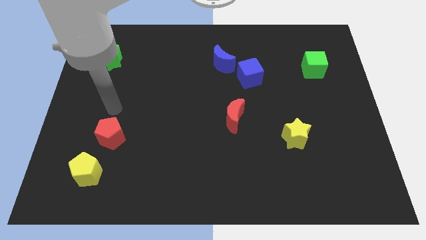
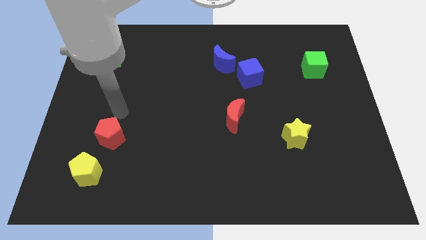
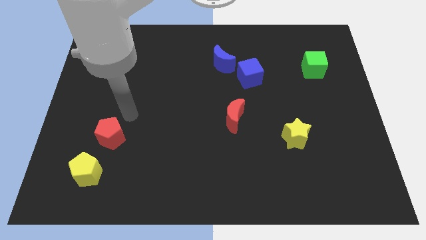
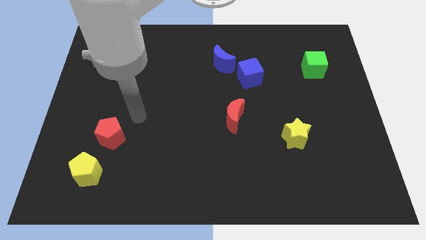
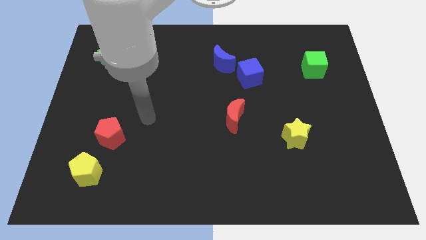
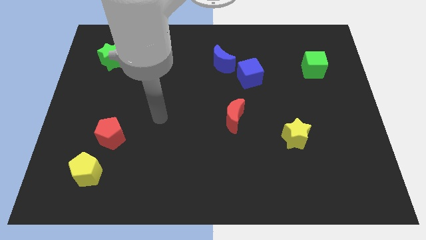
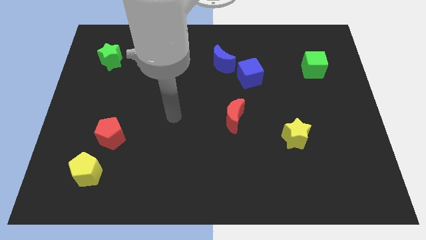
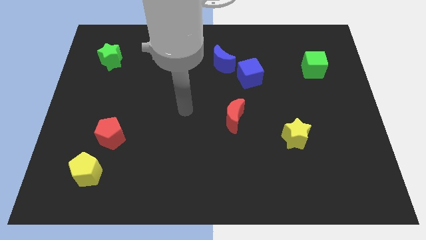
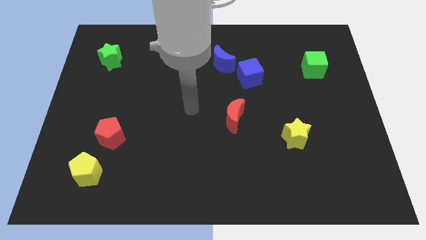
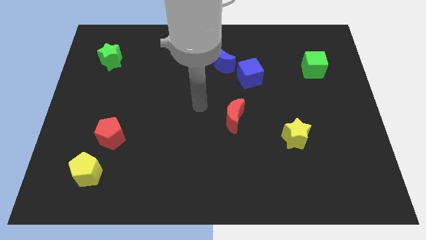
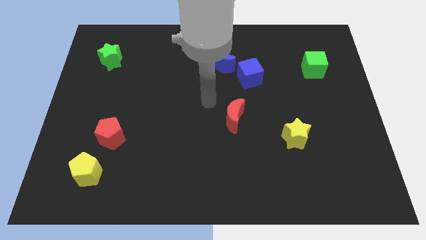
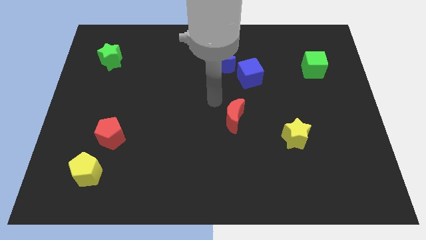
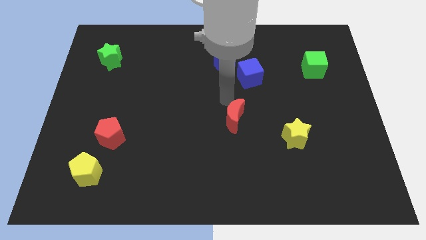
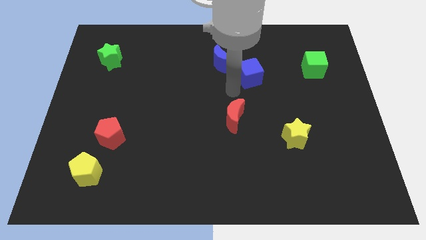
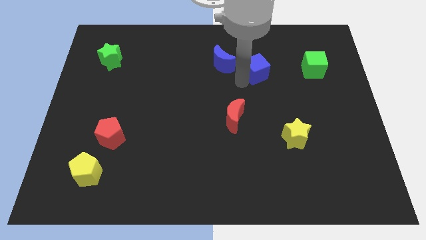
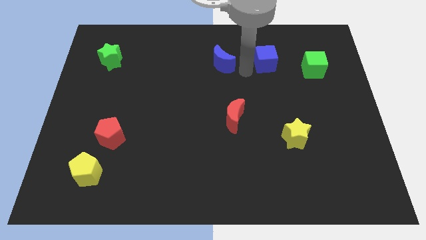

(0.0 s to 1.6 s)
pull the blue moon apart from the blue cube

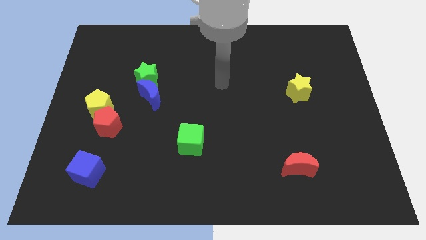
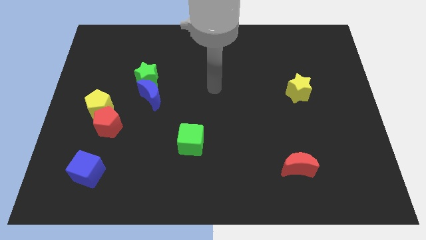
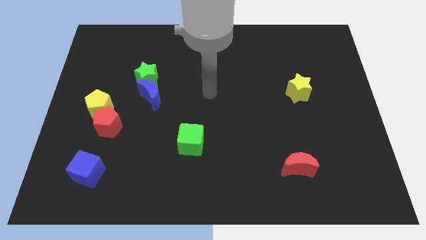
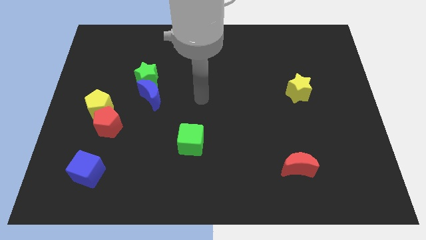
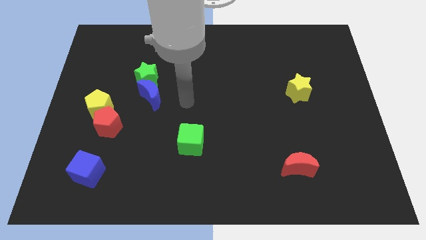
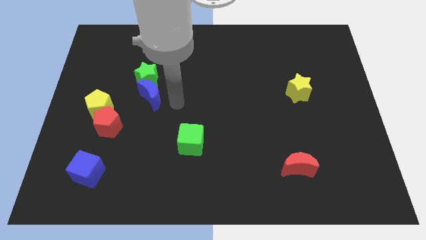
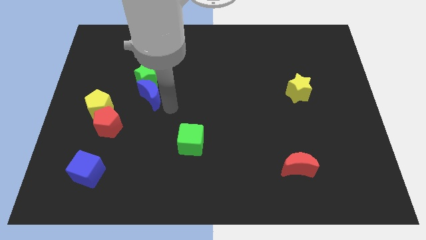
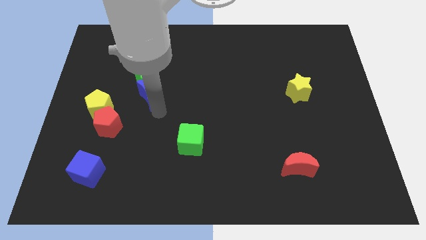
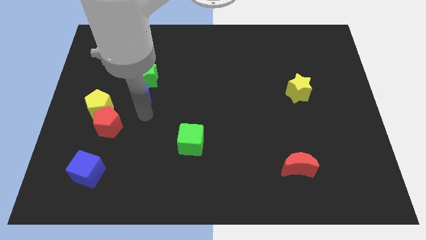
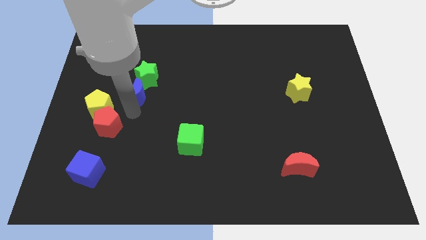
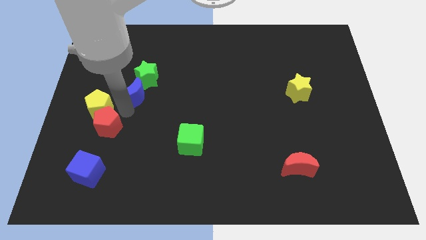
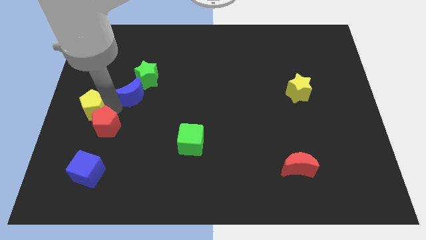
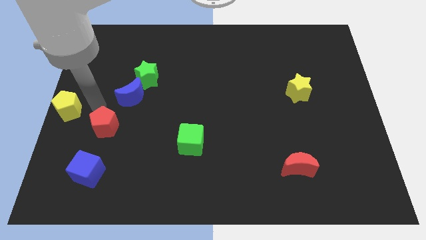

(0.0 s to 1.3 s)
separate the red pentagon from the yellow pentagon

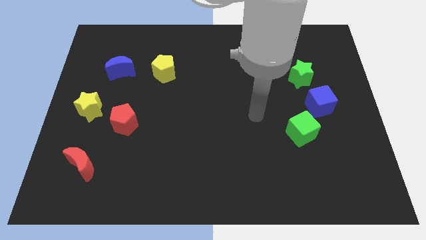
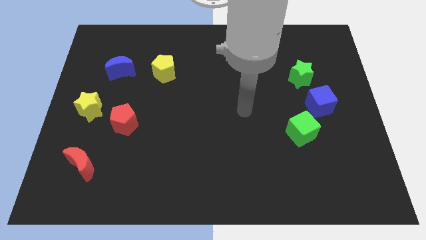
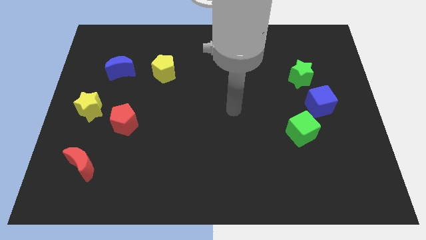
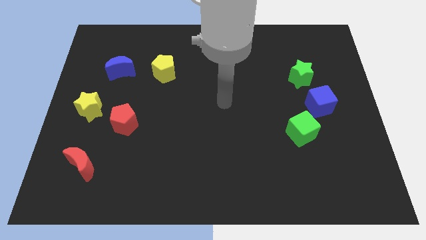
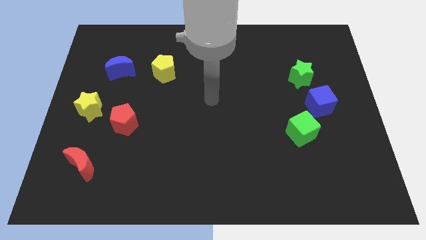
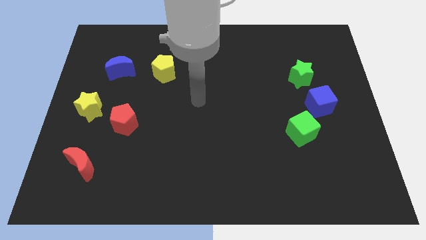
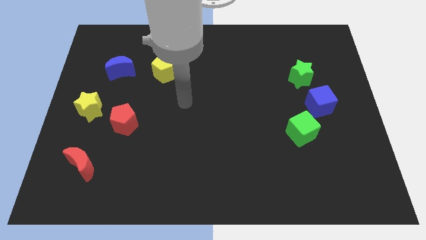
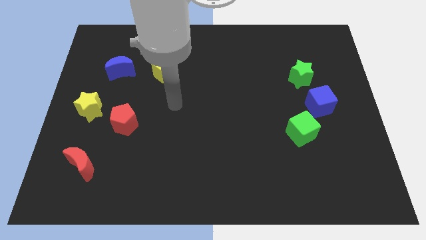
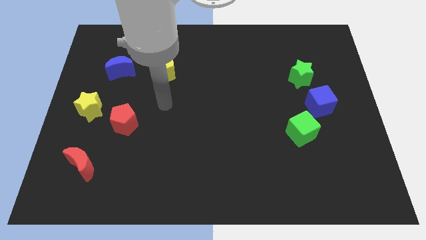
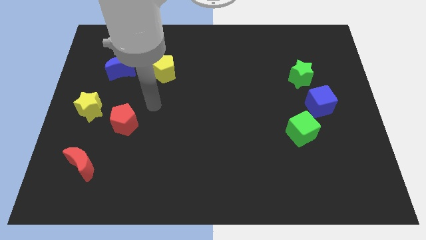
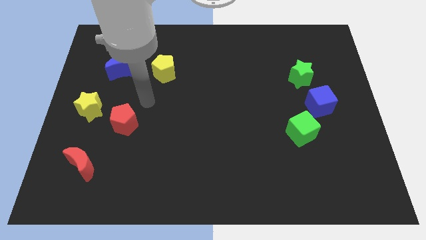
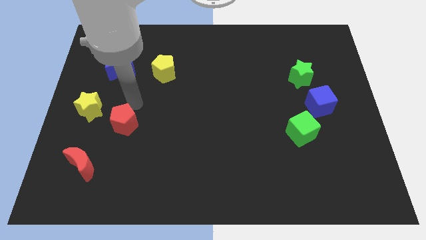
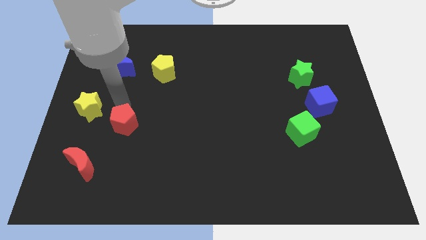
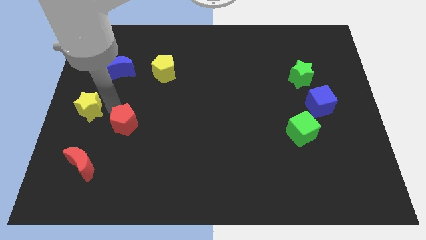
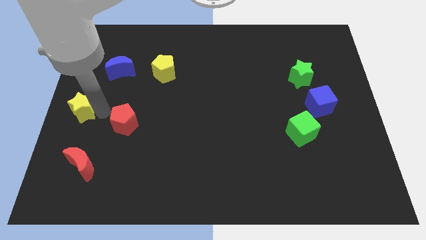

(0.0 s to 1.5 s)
move the red pentagon away from the yellow star

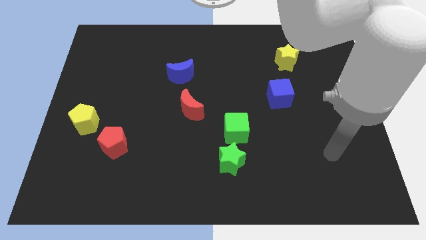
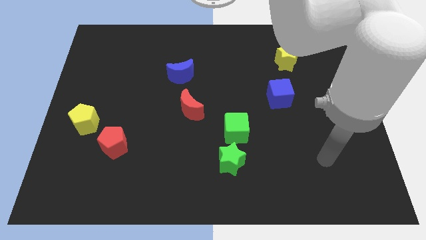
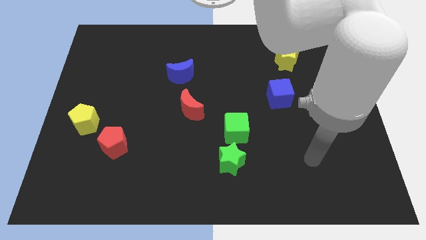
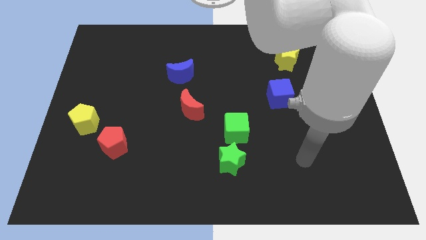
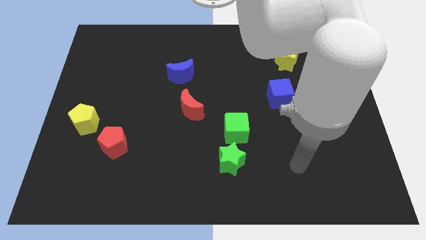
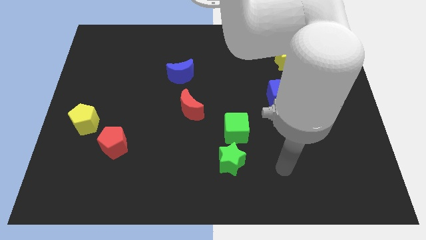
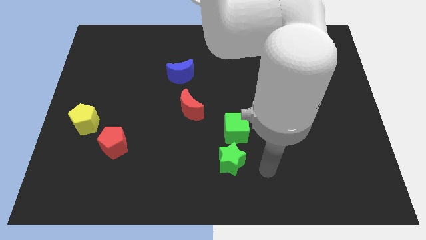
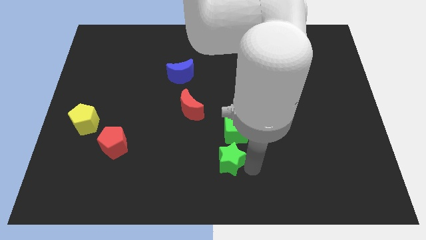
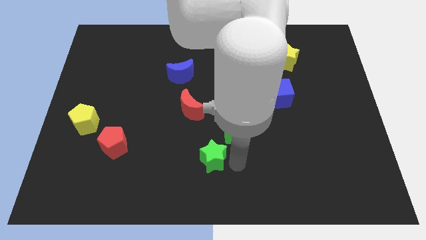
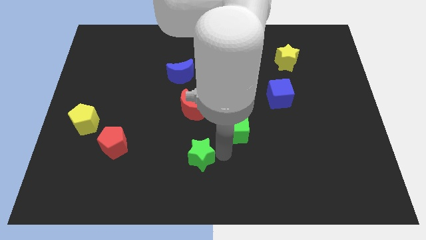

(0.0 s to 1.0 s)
move the green cube away from the green star

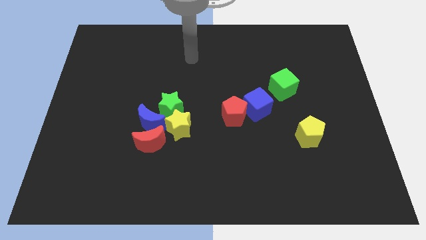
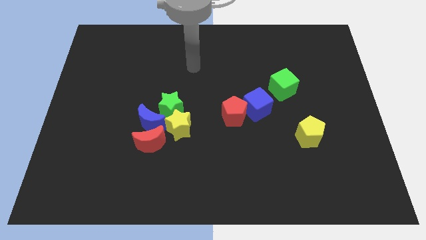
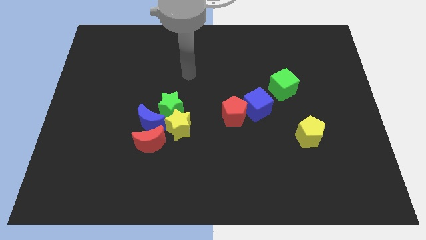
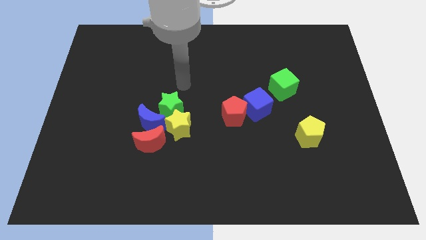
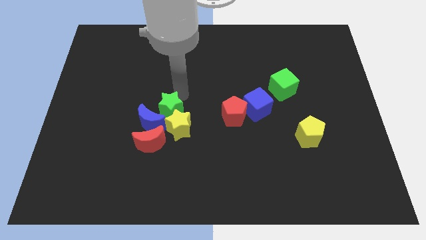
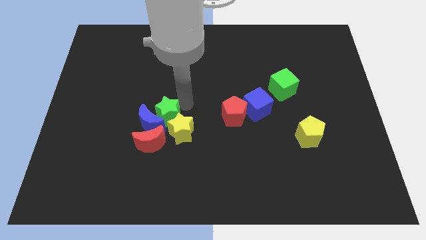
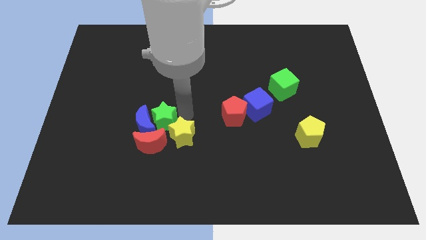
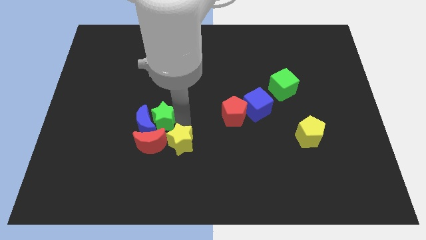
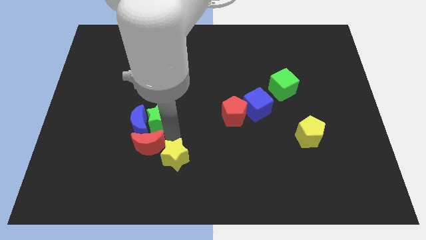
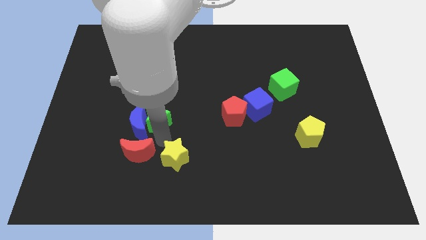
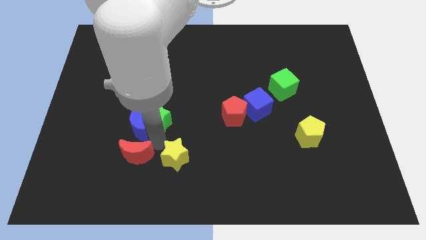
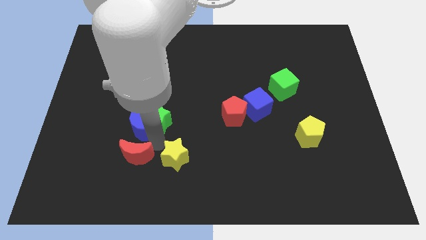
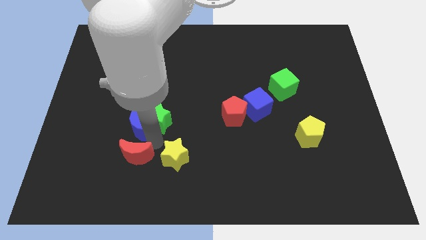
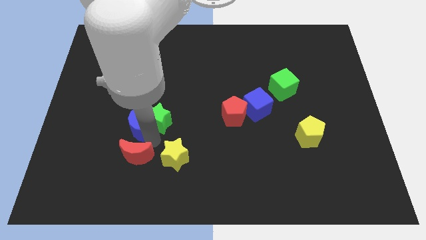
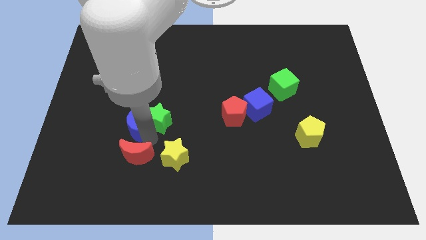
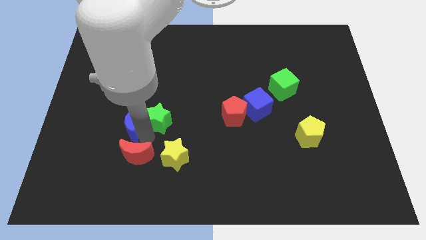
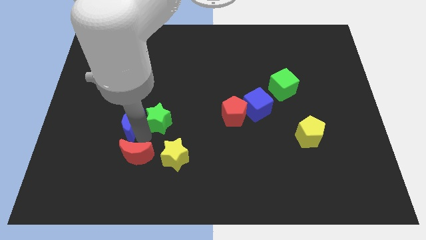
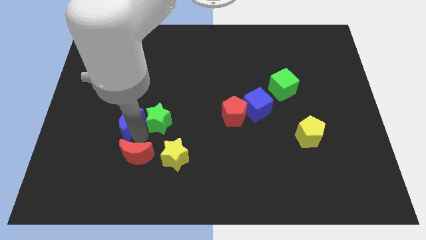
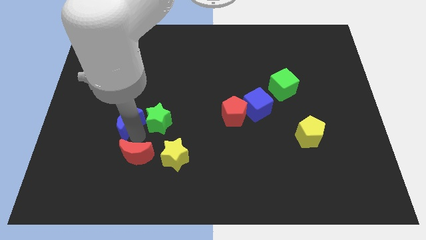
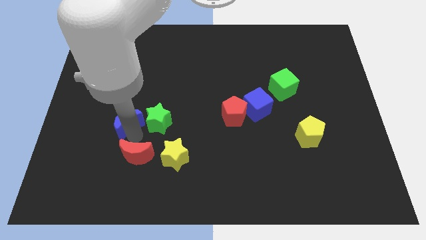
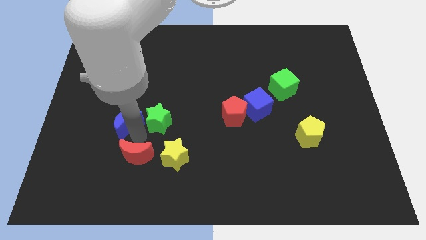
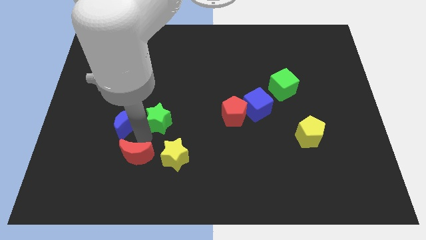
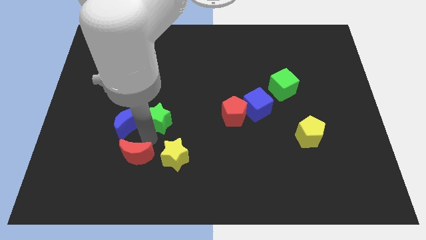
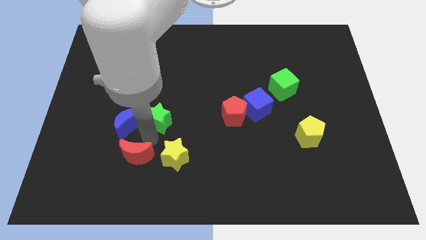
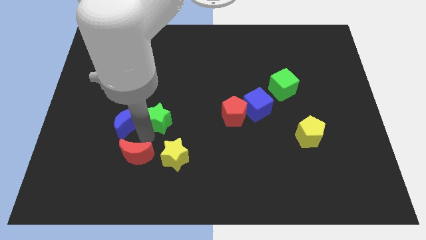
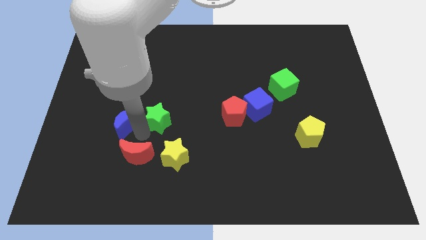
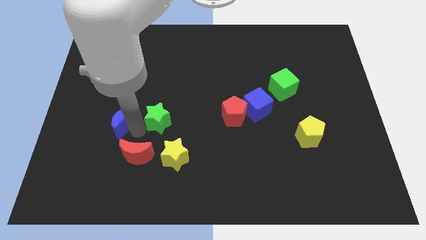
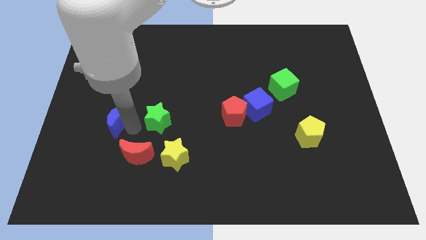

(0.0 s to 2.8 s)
move the blue moon away from the group of blocks

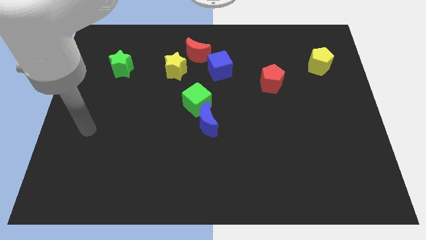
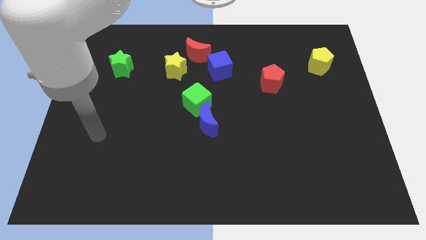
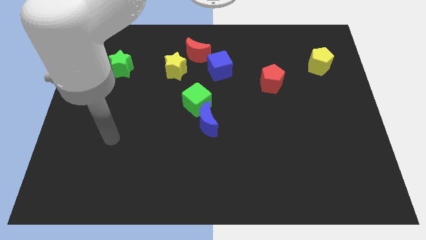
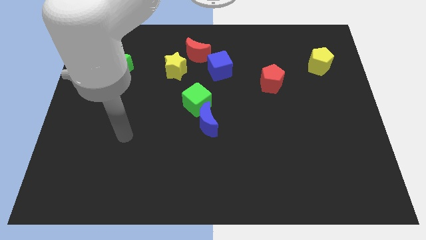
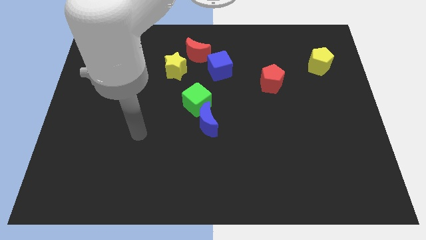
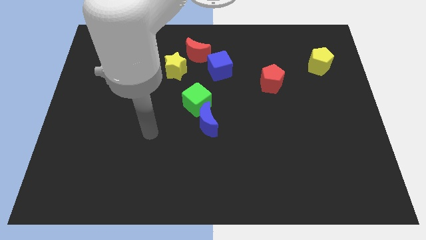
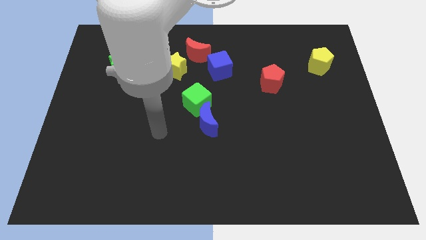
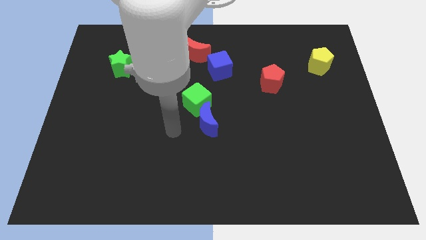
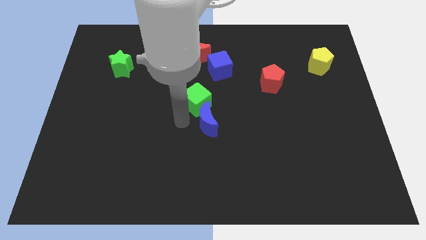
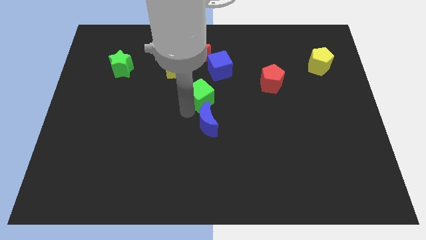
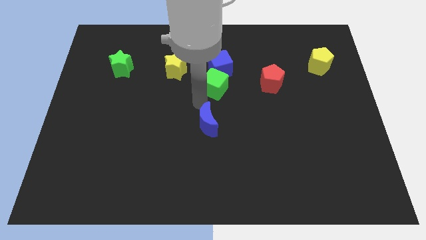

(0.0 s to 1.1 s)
move the blue moon away from the green cube

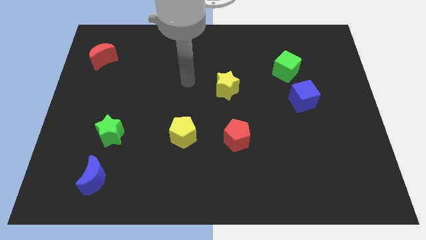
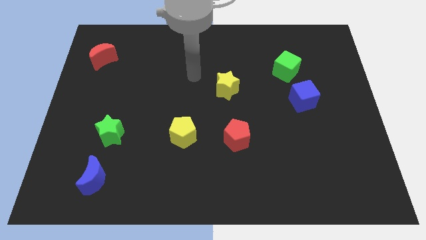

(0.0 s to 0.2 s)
move the blue cube away from the green cube
